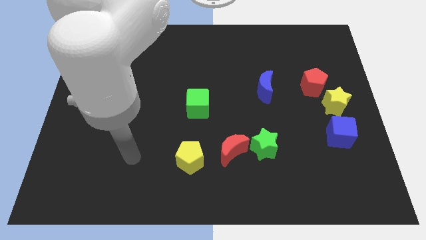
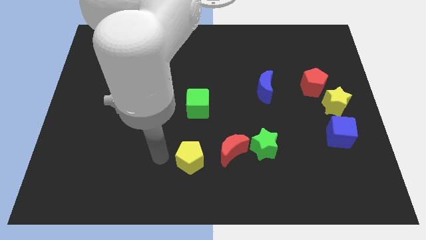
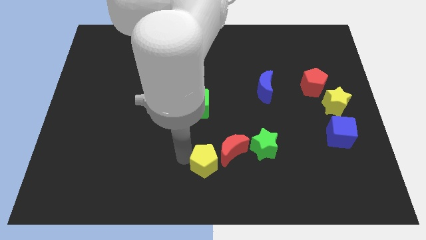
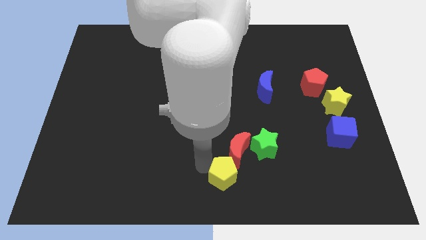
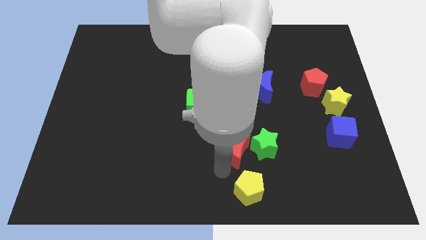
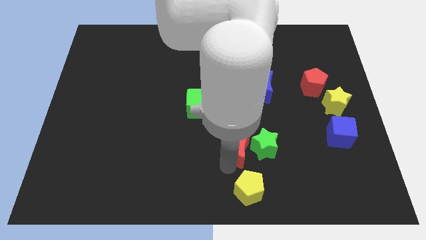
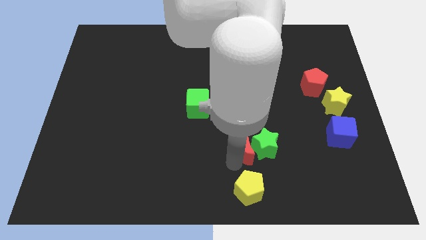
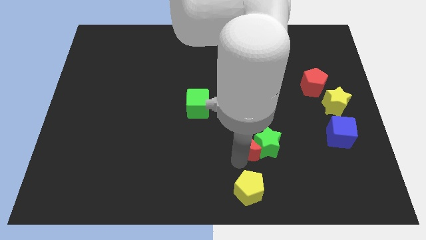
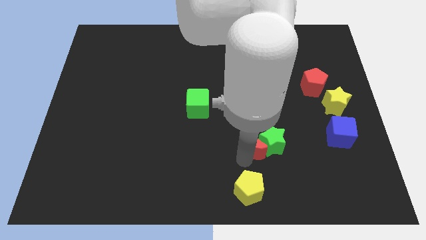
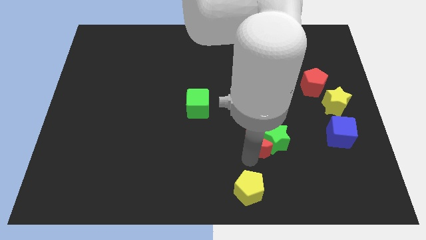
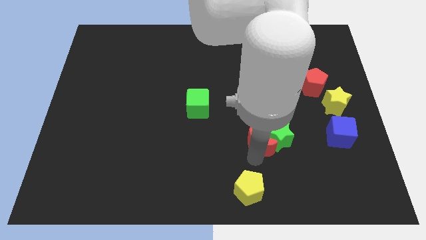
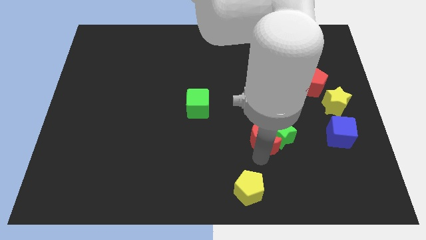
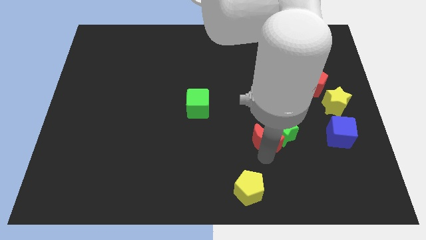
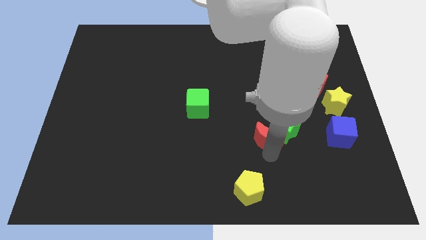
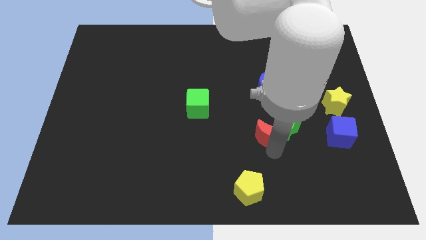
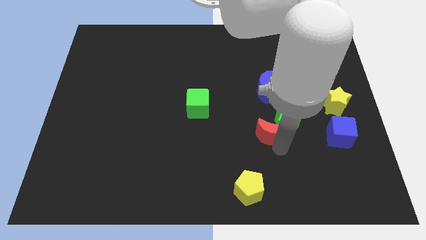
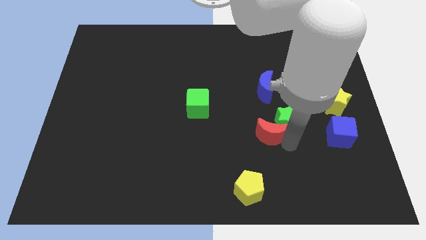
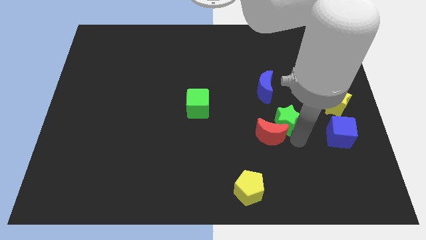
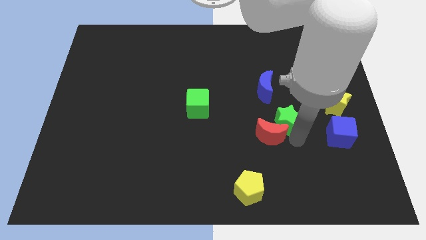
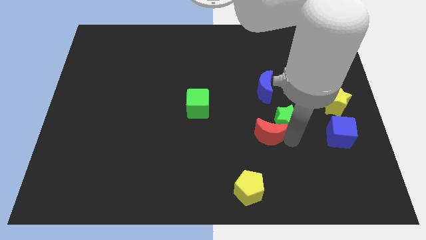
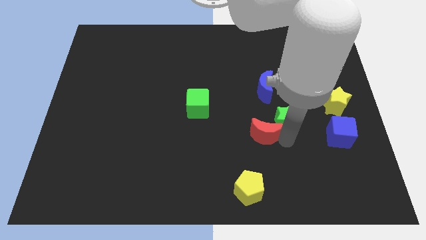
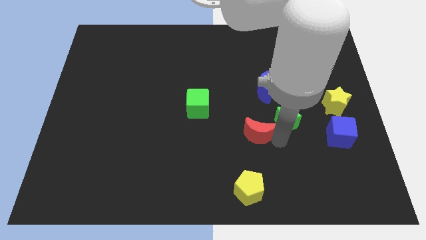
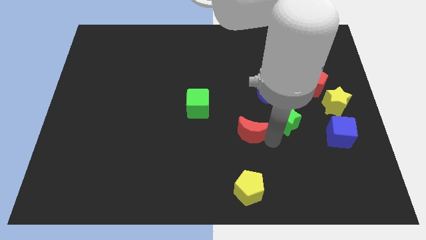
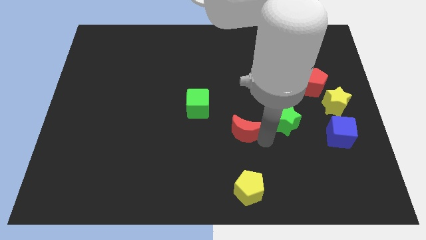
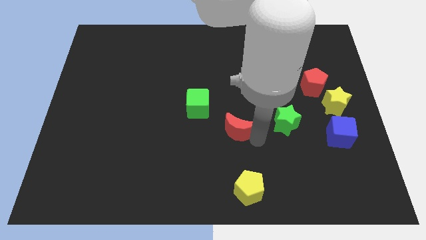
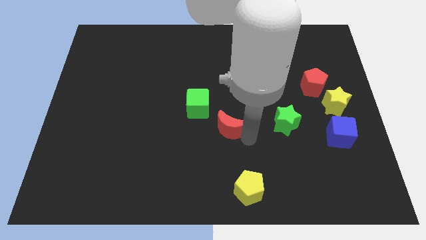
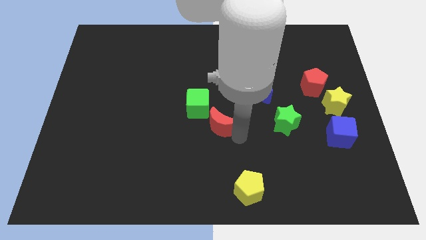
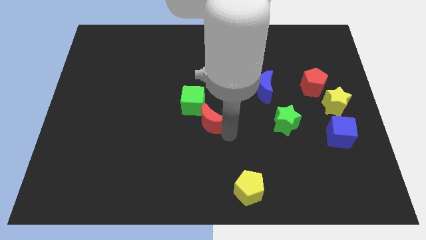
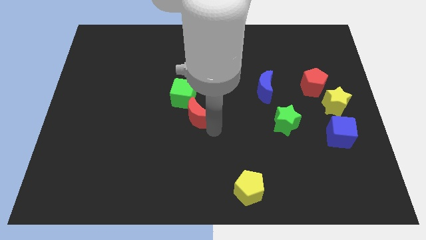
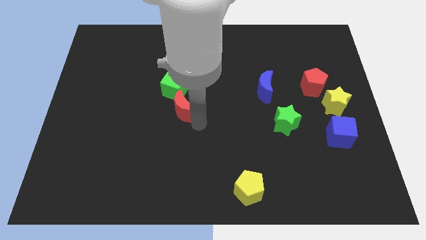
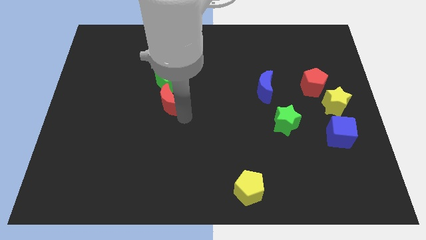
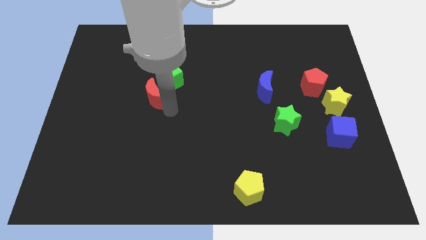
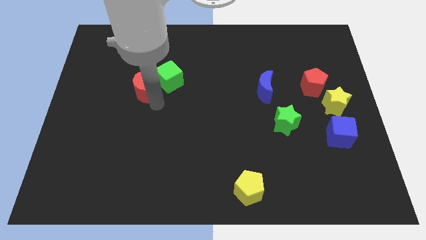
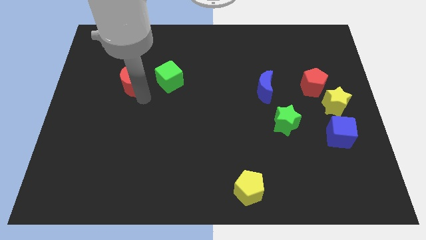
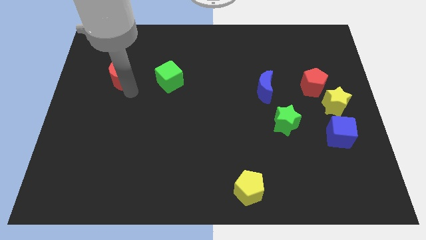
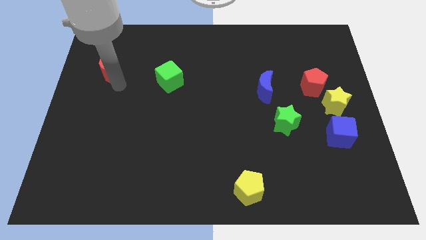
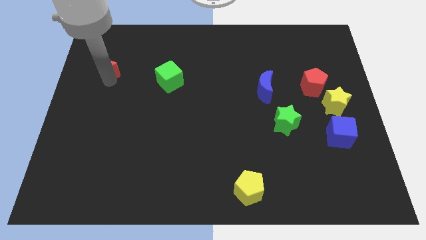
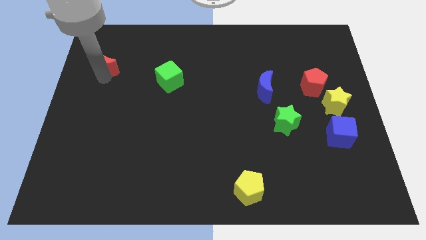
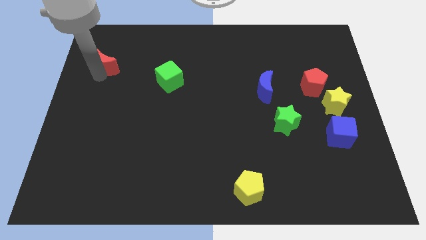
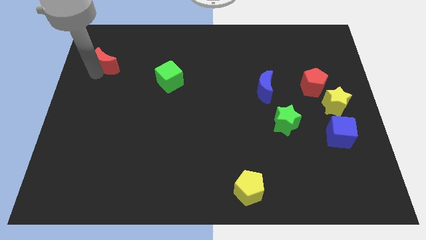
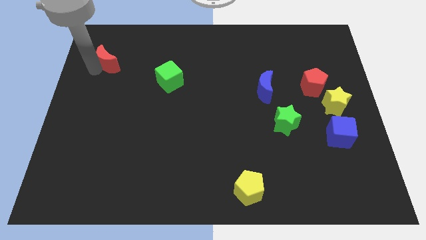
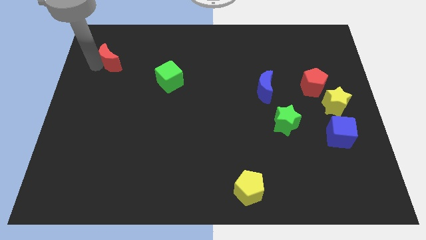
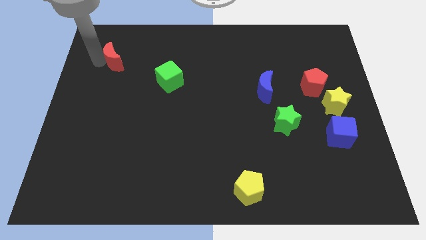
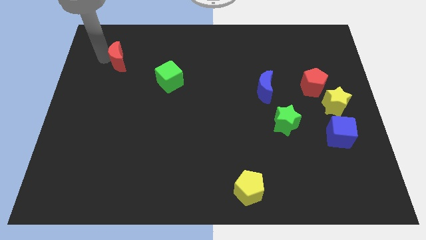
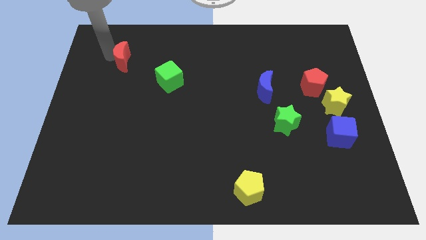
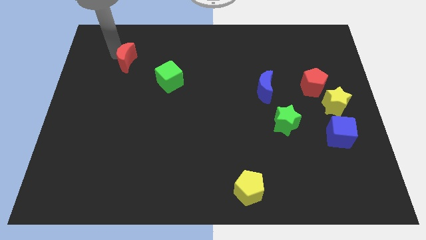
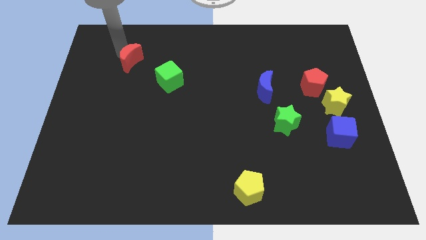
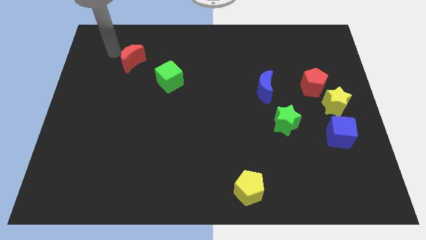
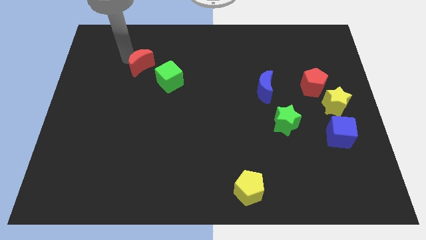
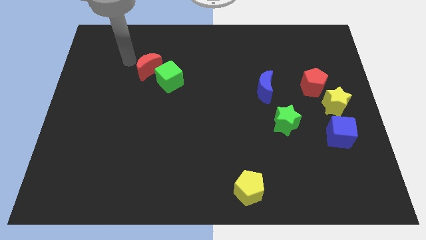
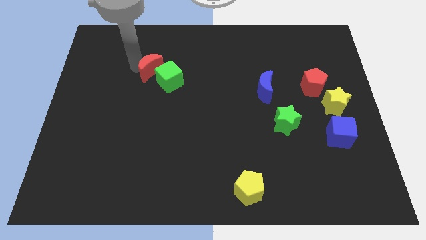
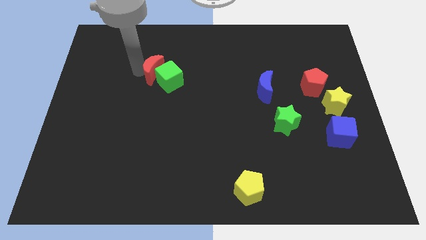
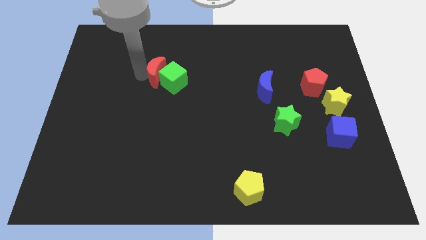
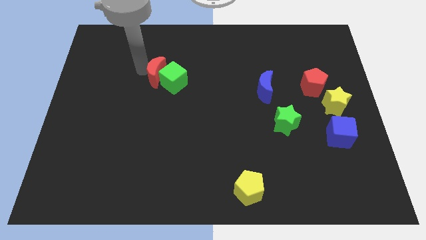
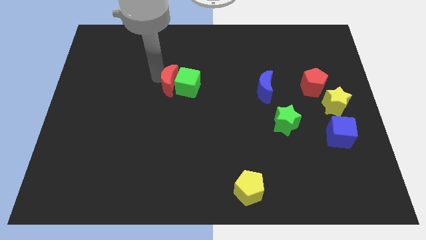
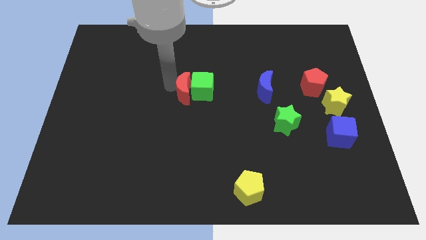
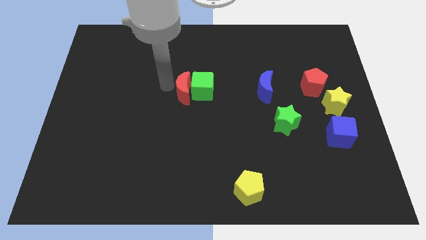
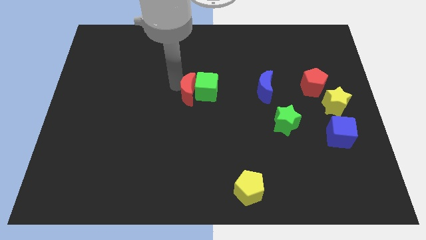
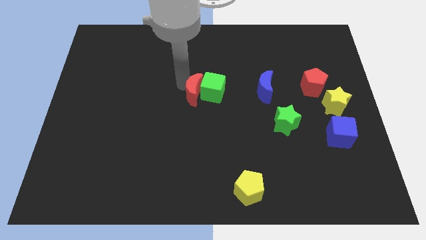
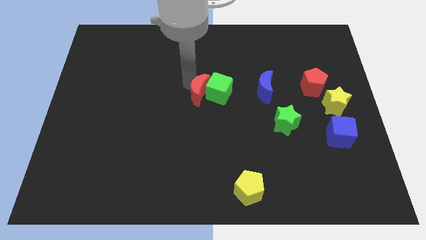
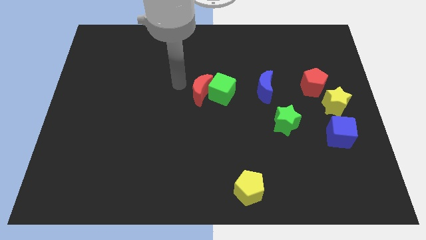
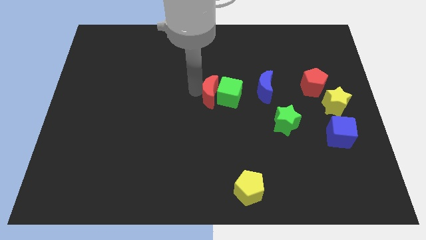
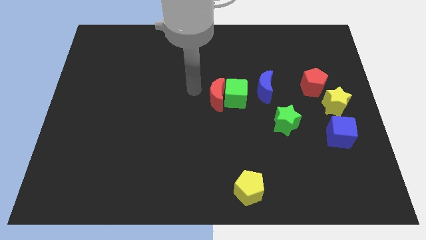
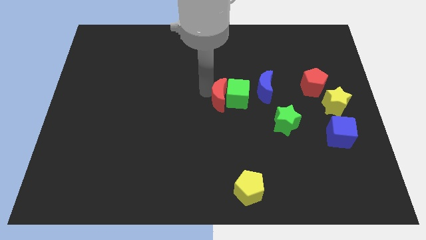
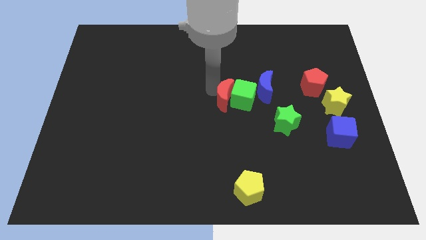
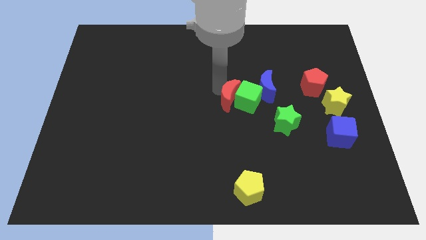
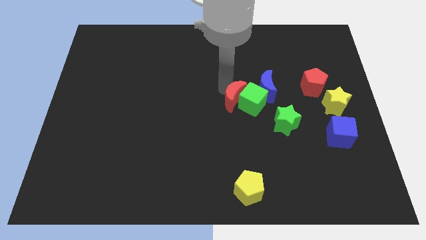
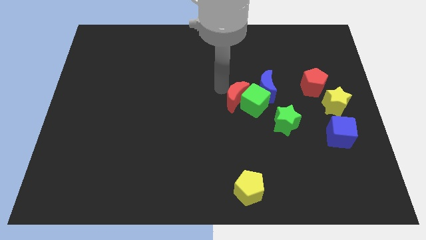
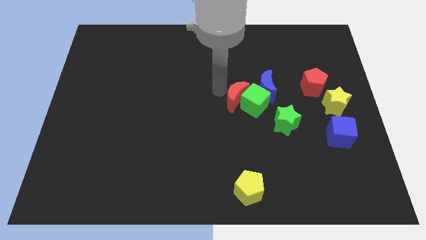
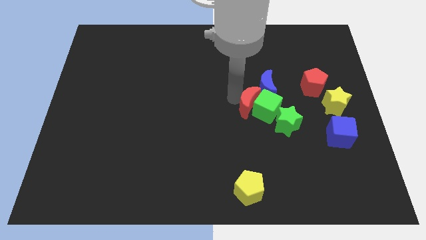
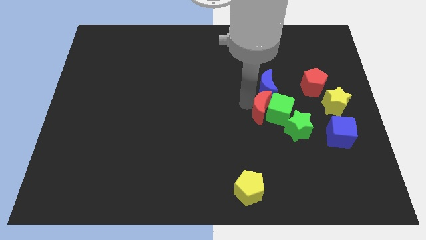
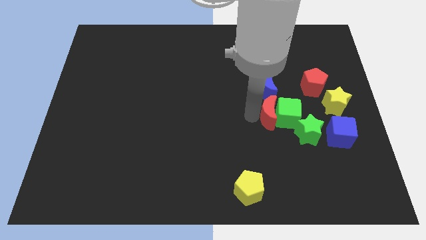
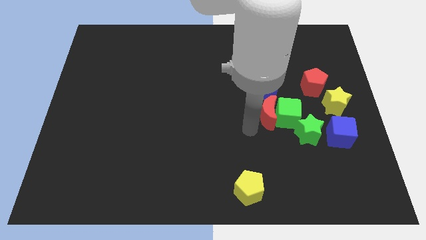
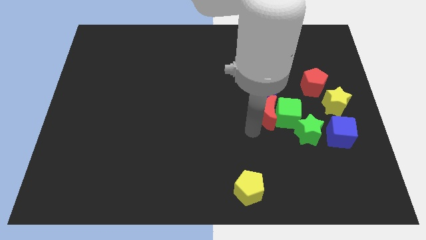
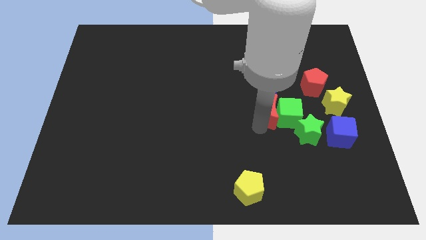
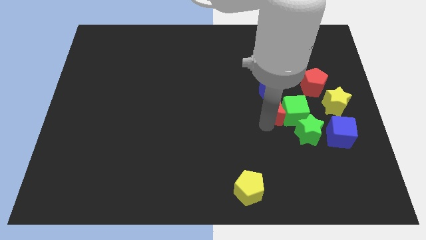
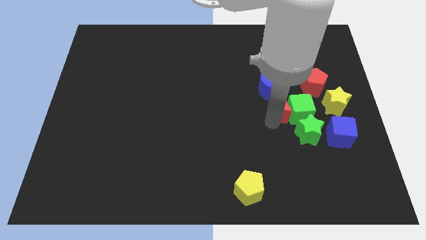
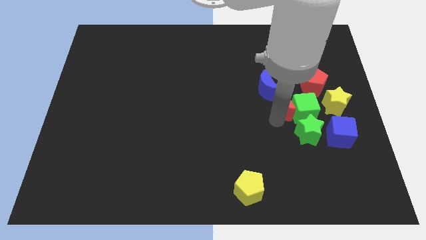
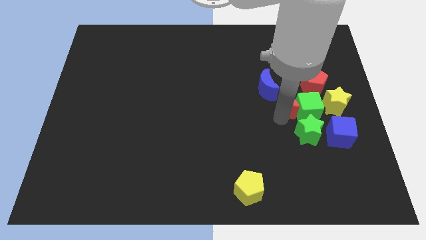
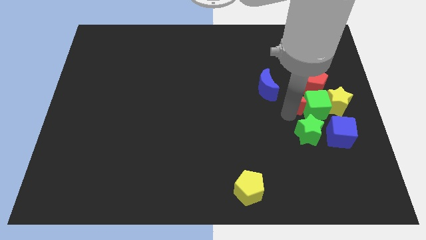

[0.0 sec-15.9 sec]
slide the red moon up and then to the right

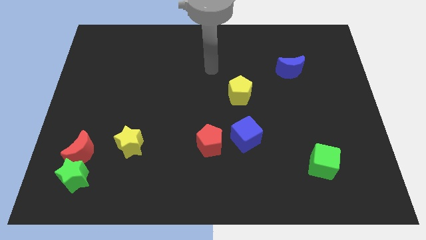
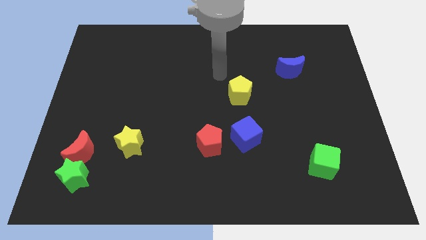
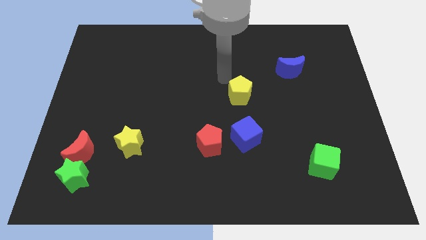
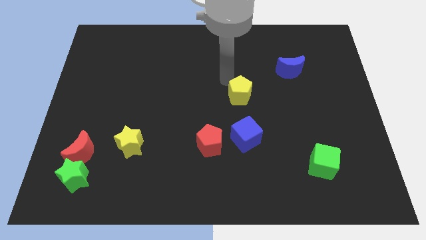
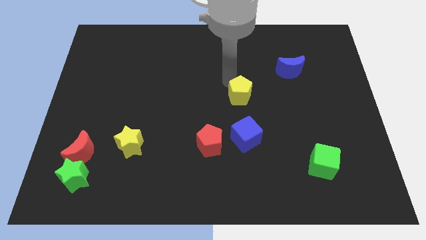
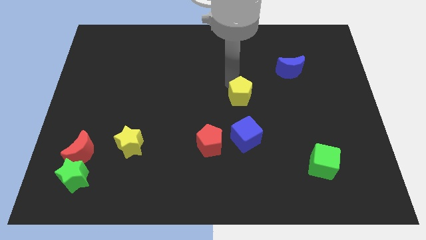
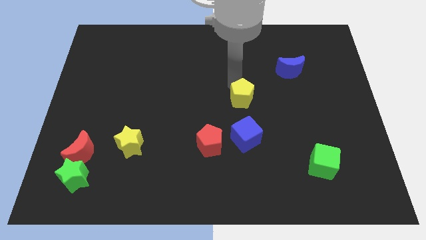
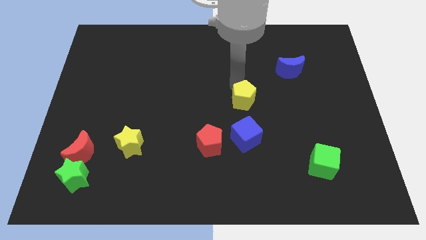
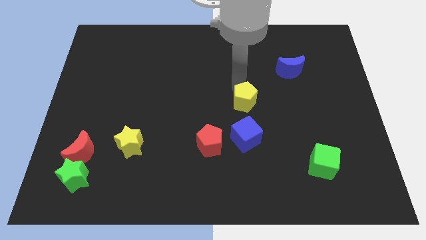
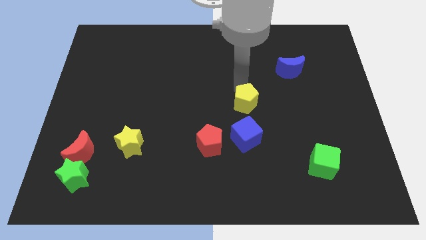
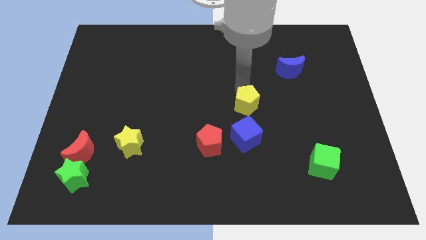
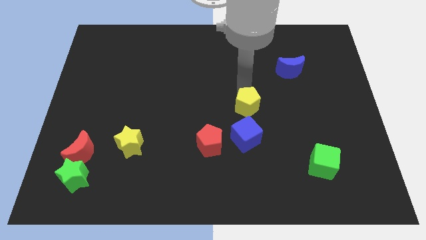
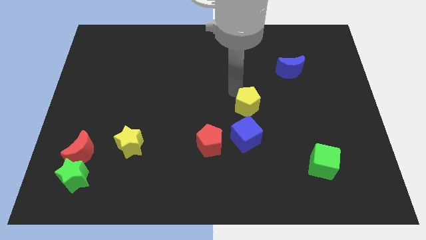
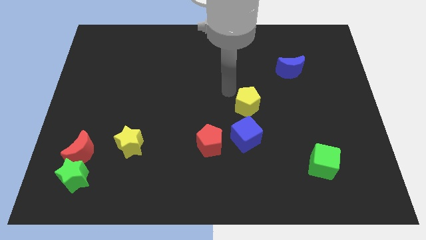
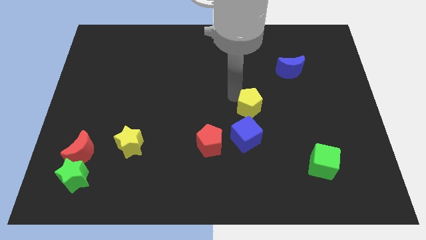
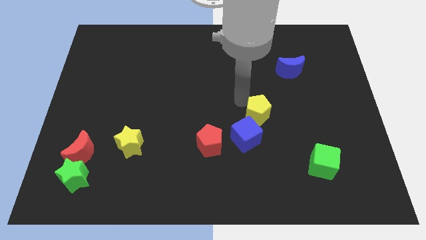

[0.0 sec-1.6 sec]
slightly slide the yellow pentagon down and to the right diagonally
